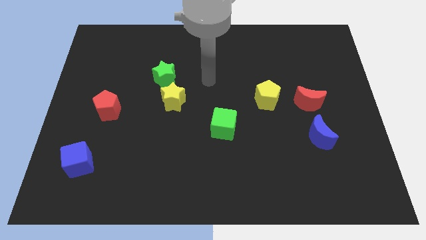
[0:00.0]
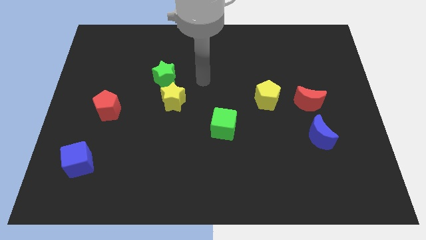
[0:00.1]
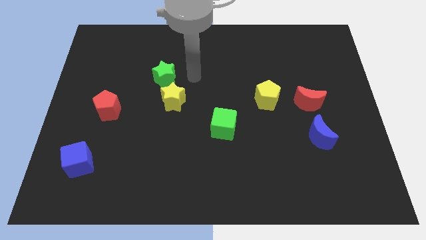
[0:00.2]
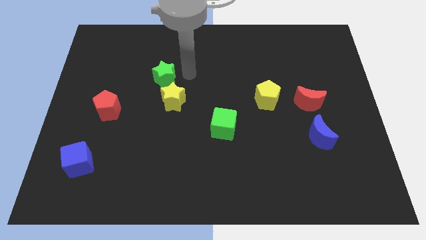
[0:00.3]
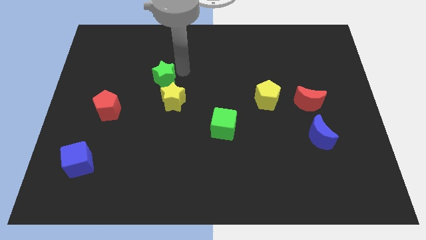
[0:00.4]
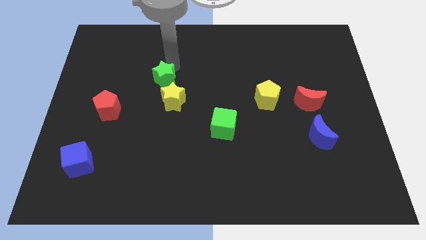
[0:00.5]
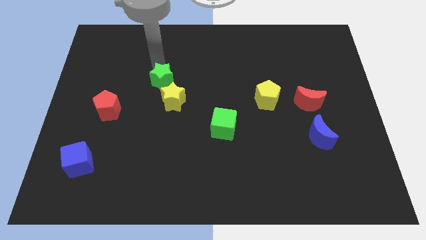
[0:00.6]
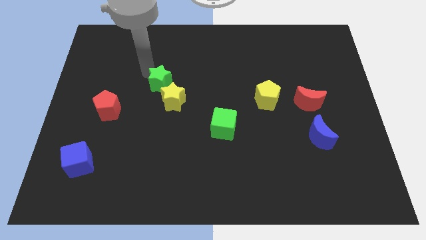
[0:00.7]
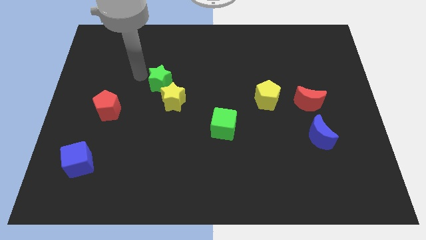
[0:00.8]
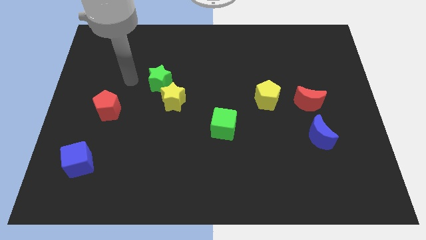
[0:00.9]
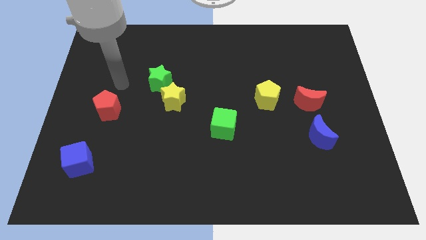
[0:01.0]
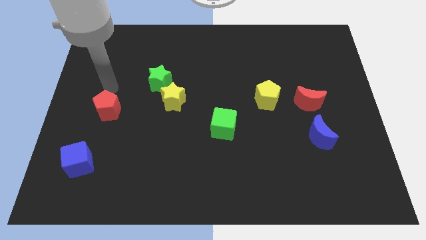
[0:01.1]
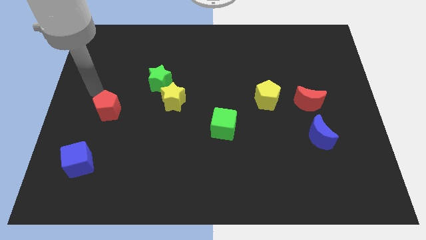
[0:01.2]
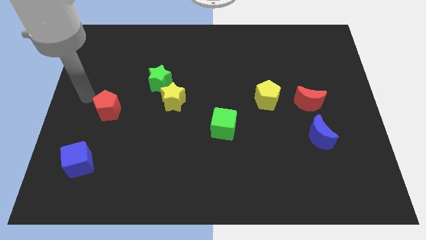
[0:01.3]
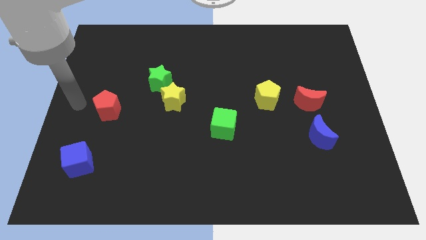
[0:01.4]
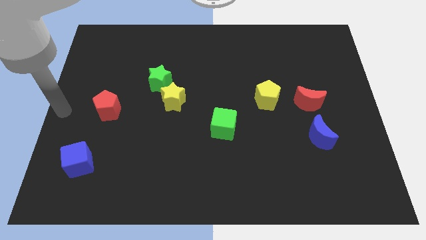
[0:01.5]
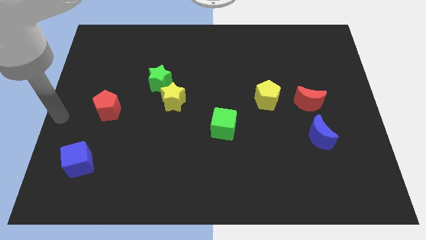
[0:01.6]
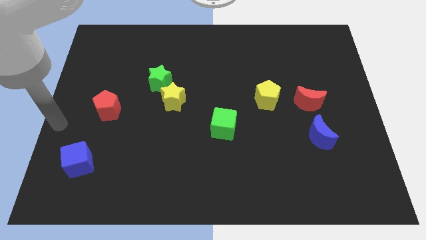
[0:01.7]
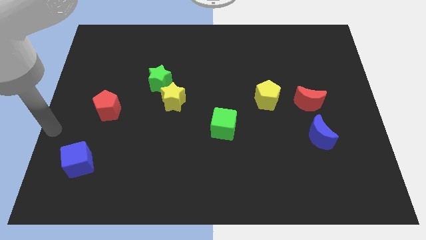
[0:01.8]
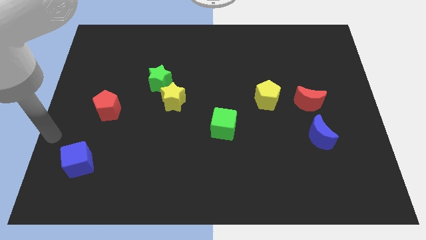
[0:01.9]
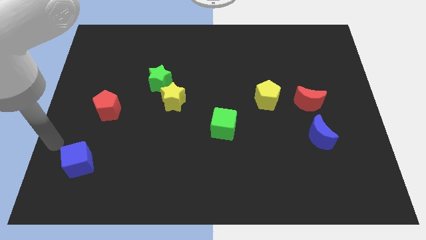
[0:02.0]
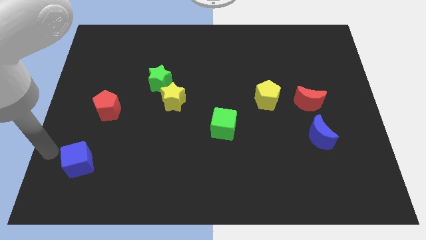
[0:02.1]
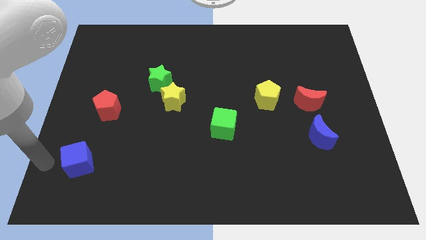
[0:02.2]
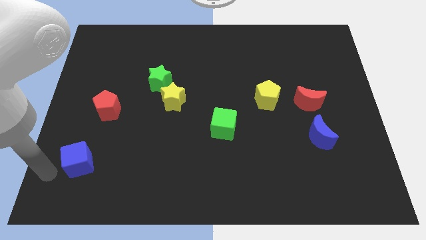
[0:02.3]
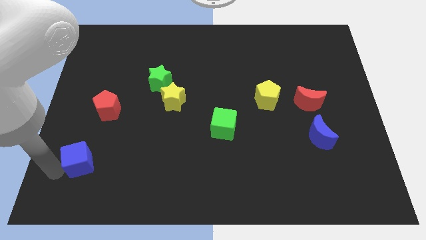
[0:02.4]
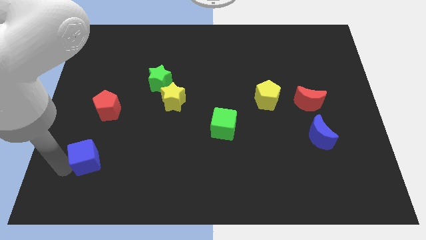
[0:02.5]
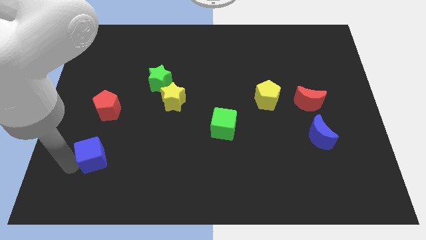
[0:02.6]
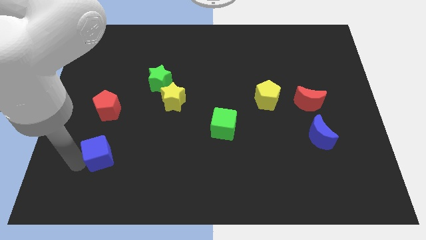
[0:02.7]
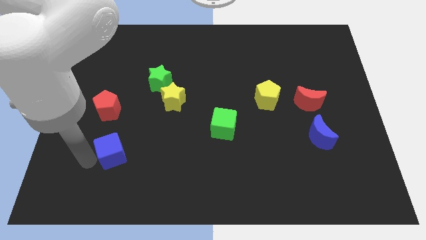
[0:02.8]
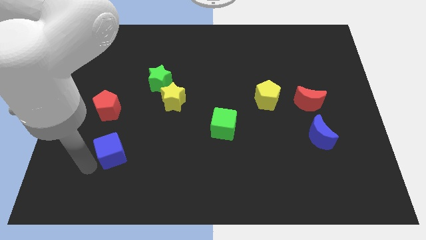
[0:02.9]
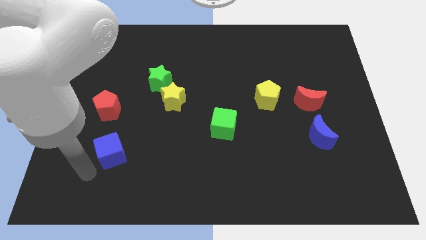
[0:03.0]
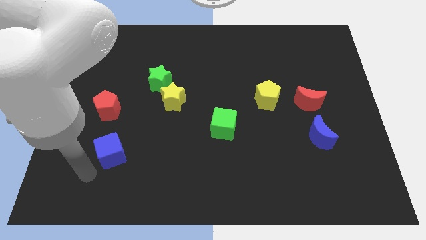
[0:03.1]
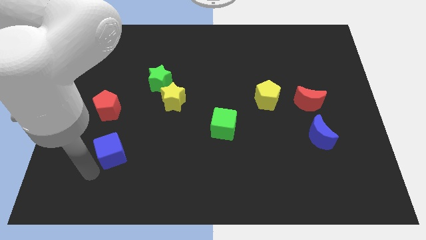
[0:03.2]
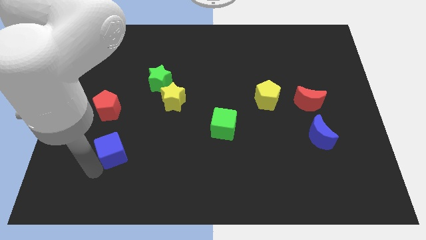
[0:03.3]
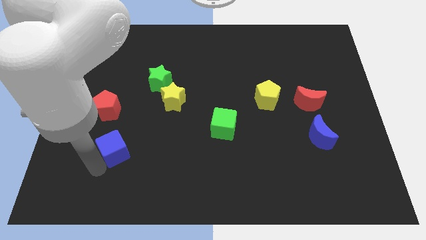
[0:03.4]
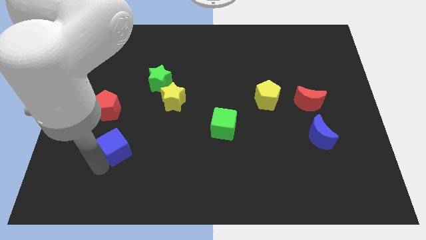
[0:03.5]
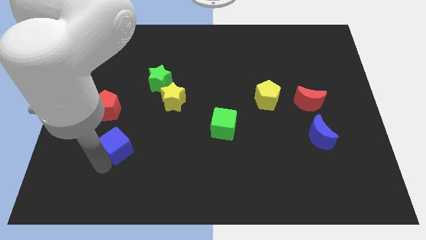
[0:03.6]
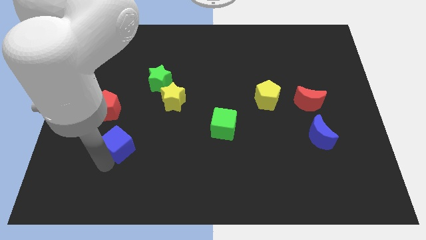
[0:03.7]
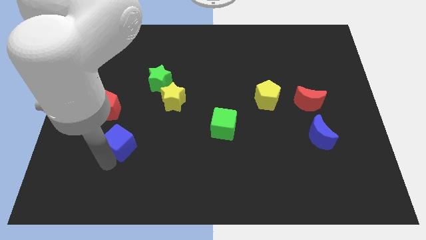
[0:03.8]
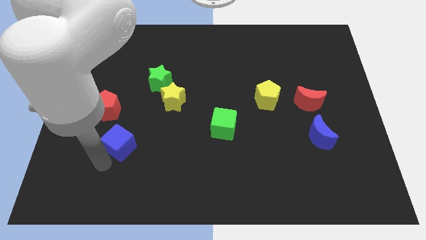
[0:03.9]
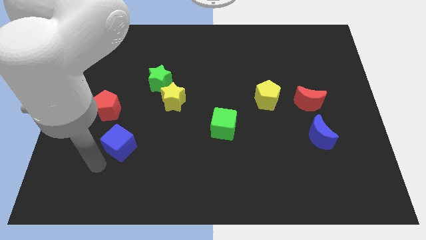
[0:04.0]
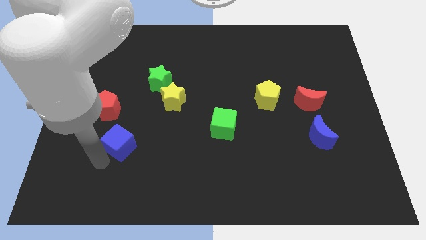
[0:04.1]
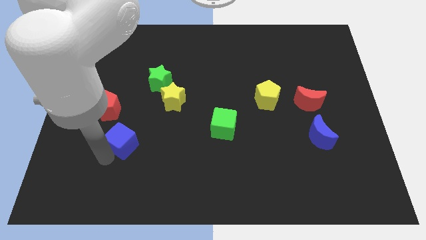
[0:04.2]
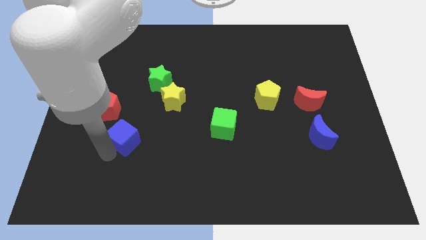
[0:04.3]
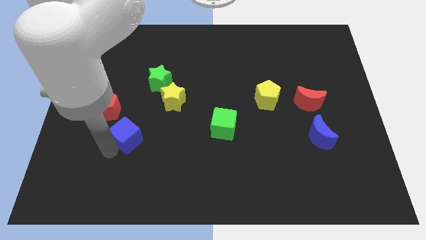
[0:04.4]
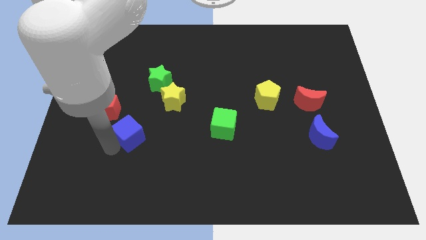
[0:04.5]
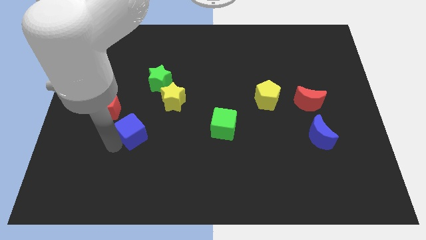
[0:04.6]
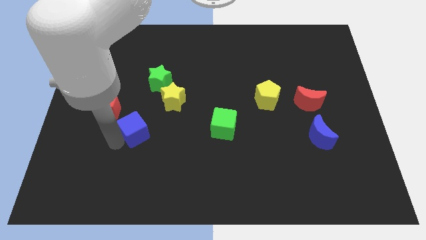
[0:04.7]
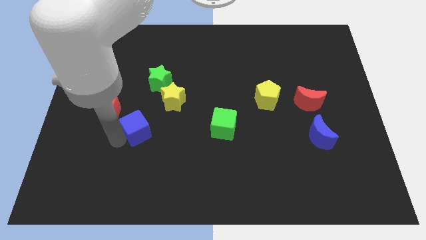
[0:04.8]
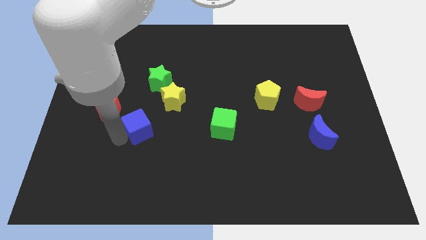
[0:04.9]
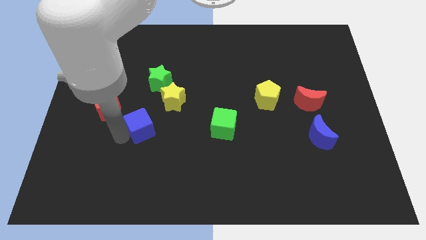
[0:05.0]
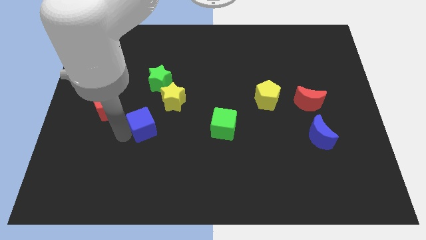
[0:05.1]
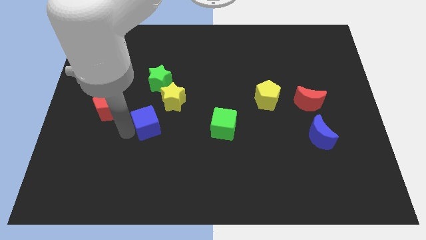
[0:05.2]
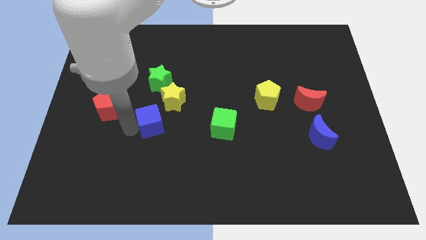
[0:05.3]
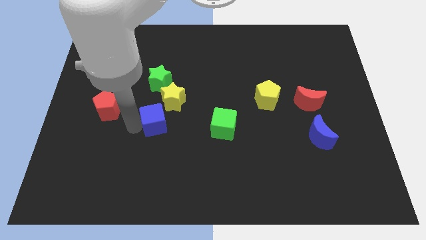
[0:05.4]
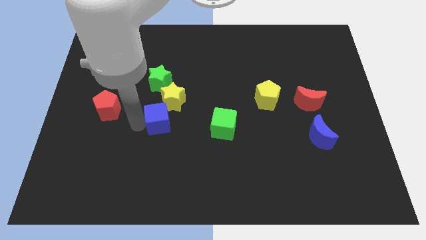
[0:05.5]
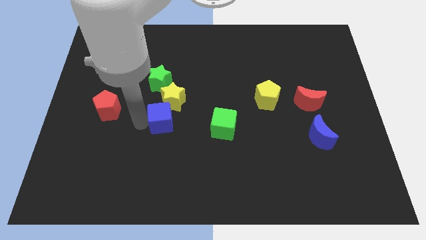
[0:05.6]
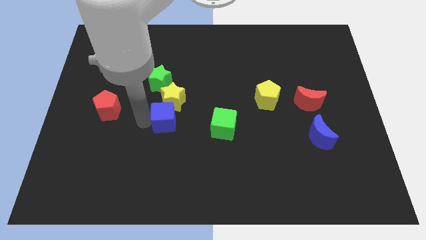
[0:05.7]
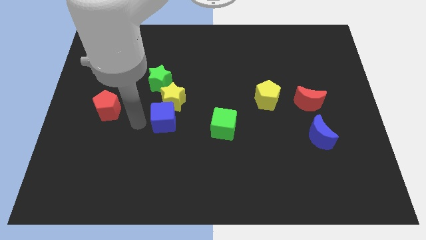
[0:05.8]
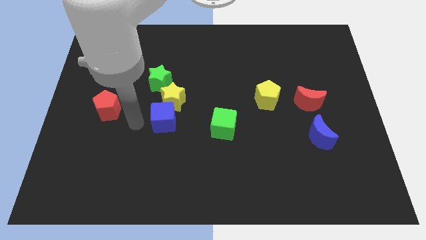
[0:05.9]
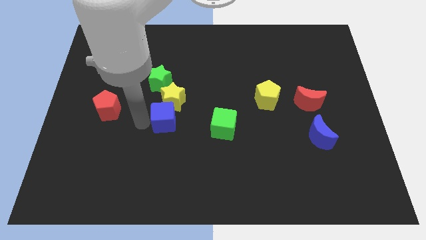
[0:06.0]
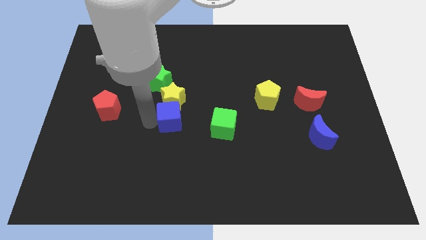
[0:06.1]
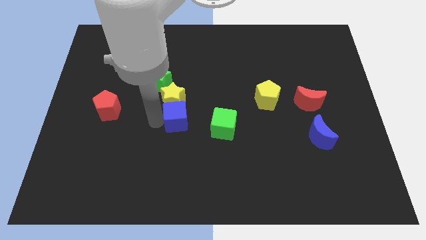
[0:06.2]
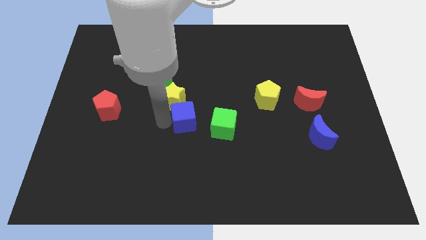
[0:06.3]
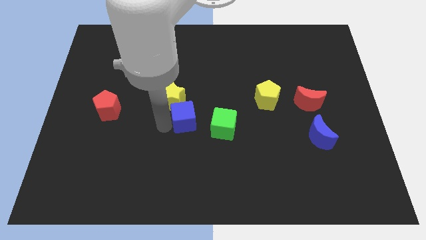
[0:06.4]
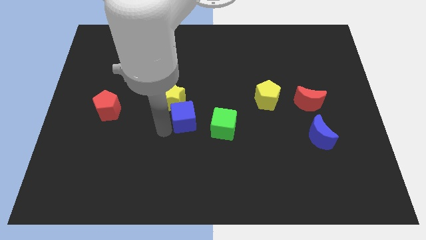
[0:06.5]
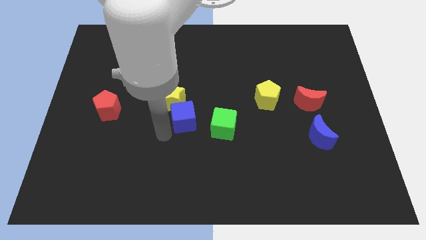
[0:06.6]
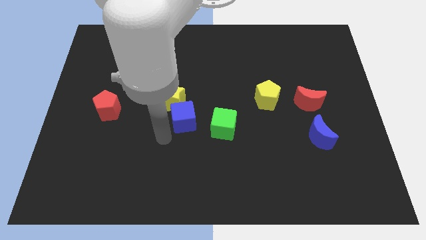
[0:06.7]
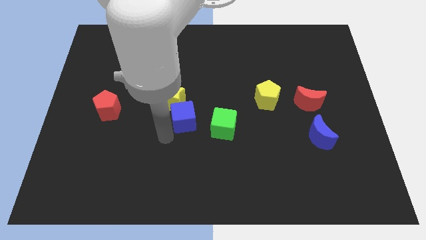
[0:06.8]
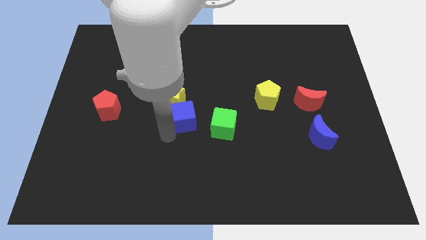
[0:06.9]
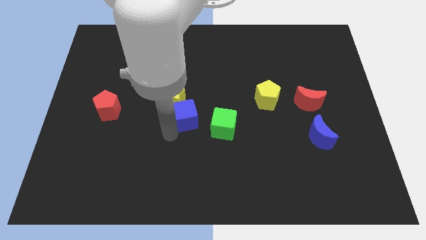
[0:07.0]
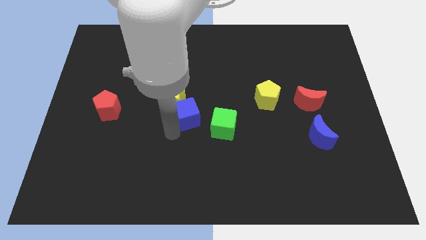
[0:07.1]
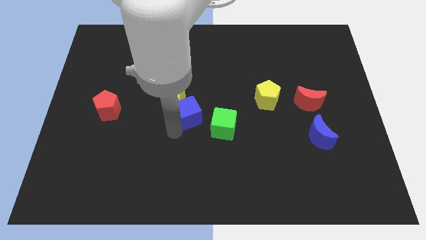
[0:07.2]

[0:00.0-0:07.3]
put the blue cube to the right of the yellow star
